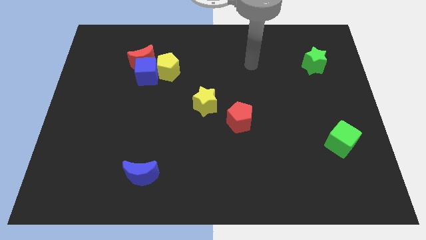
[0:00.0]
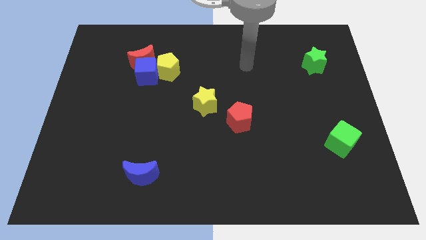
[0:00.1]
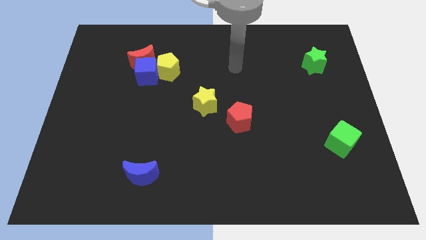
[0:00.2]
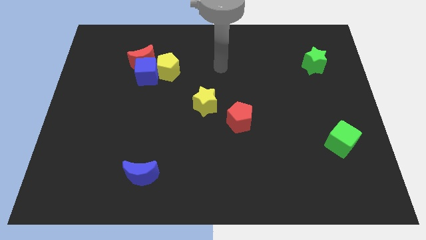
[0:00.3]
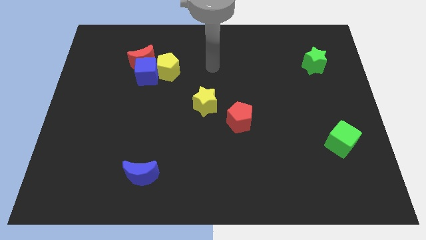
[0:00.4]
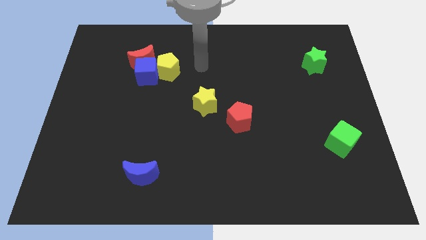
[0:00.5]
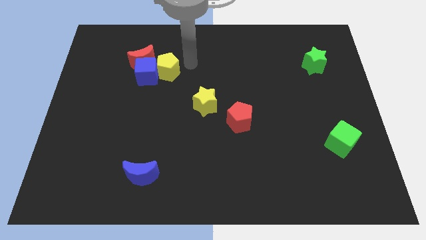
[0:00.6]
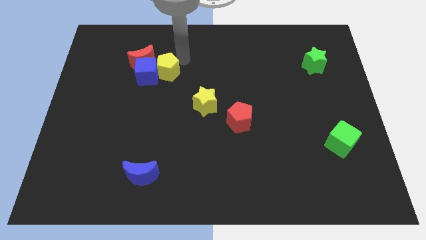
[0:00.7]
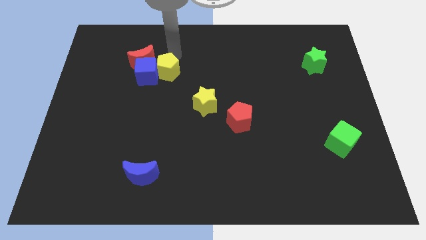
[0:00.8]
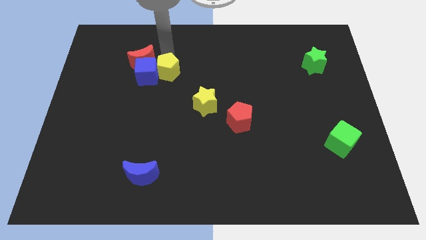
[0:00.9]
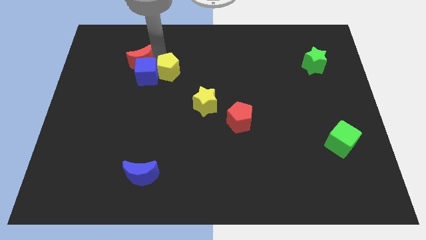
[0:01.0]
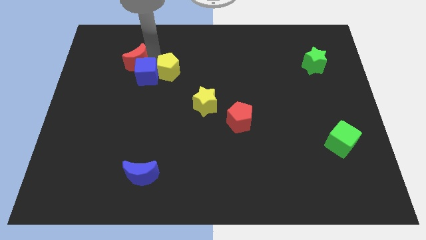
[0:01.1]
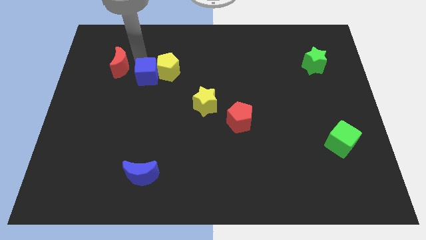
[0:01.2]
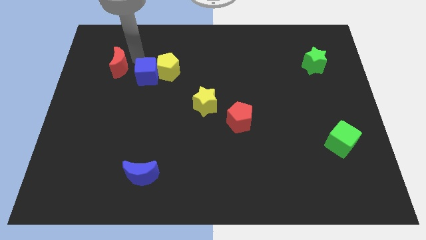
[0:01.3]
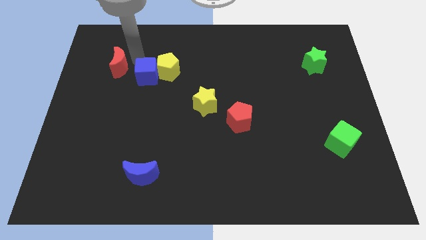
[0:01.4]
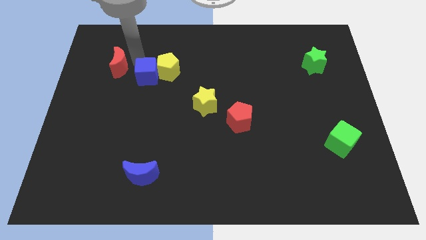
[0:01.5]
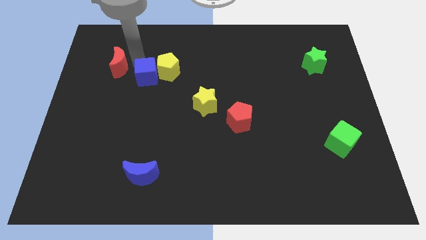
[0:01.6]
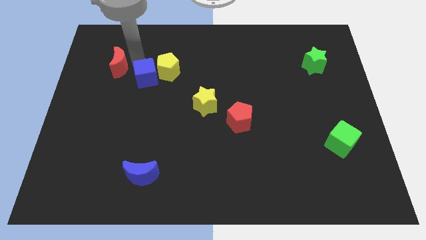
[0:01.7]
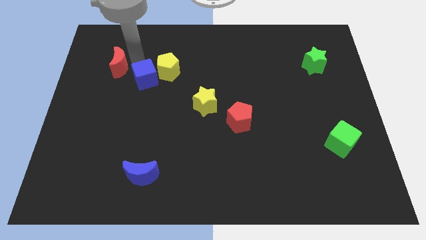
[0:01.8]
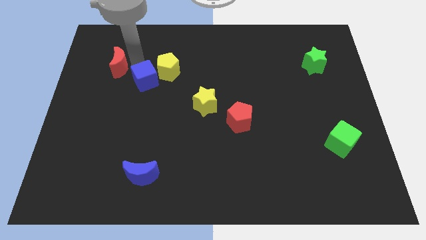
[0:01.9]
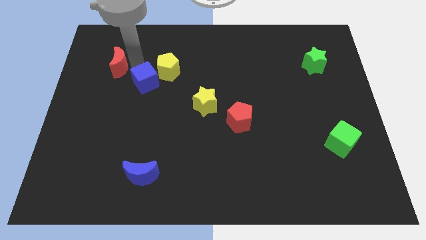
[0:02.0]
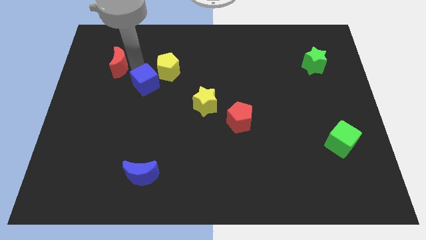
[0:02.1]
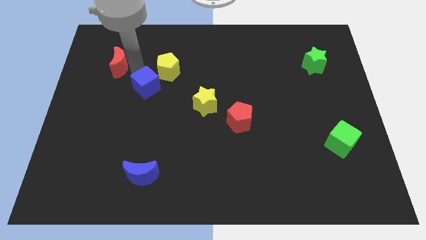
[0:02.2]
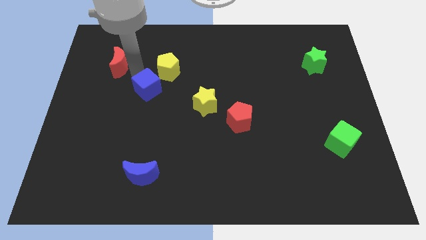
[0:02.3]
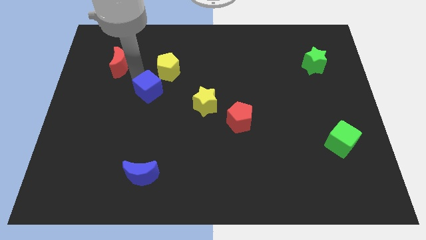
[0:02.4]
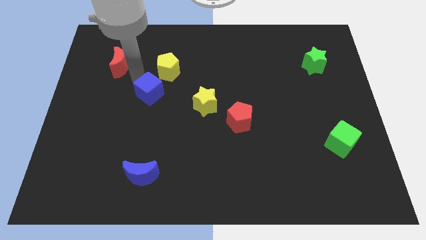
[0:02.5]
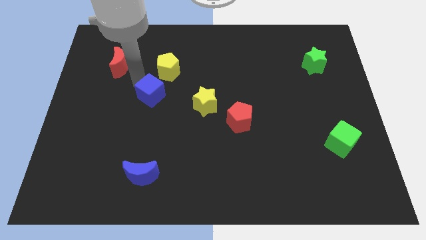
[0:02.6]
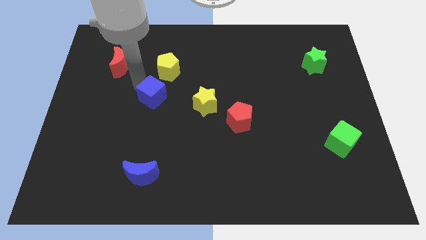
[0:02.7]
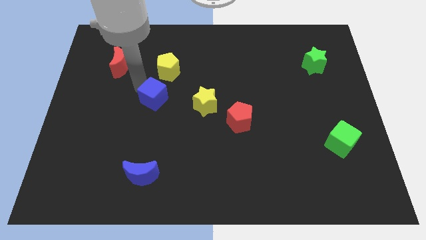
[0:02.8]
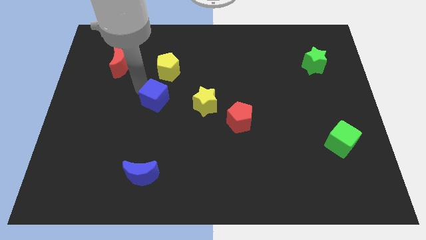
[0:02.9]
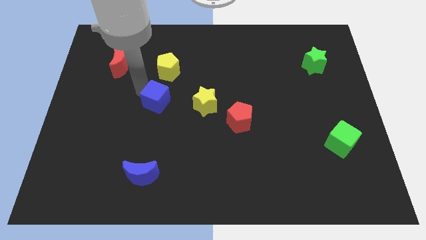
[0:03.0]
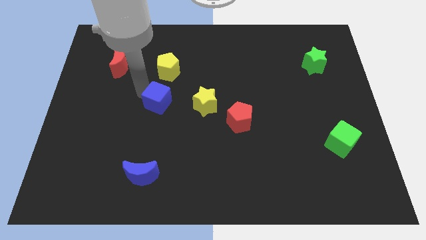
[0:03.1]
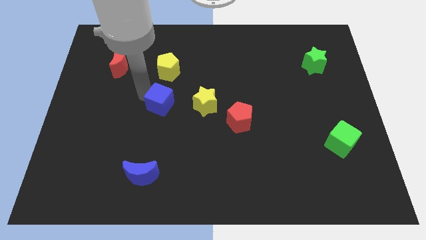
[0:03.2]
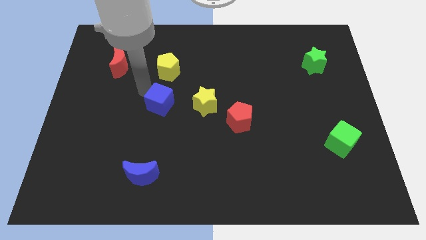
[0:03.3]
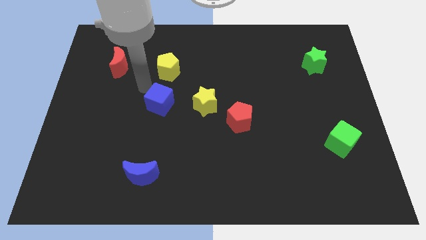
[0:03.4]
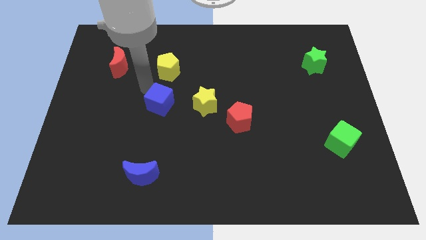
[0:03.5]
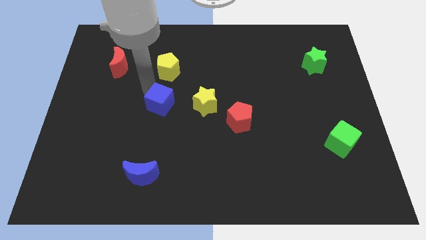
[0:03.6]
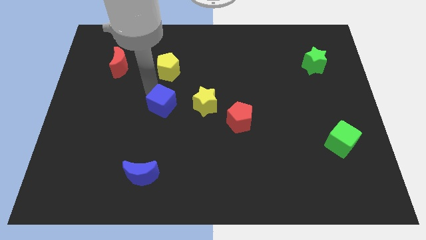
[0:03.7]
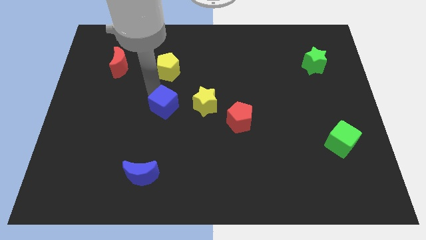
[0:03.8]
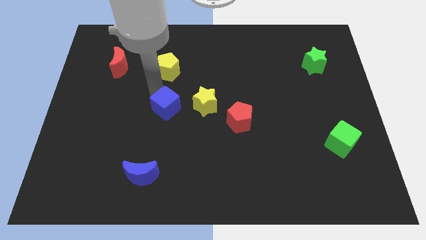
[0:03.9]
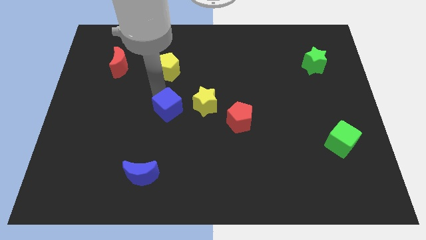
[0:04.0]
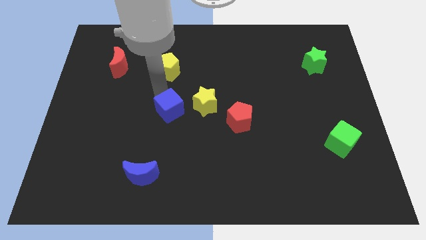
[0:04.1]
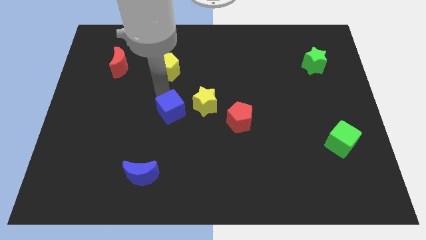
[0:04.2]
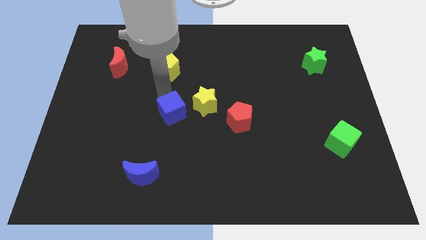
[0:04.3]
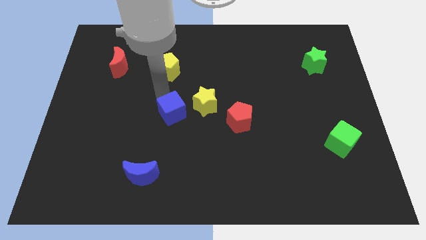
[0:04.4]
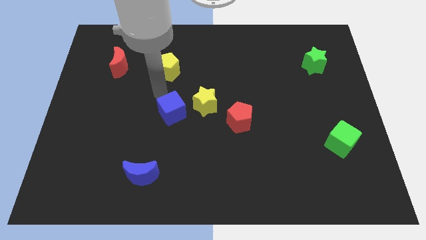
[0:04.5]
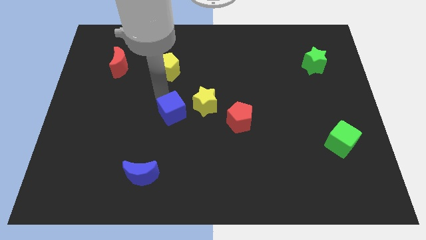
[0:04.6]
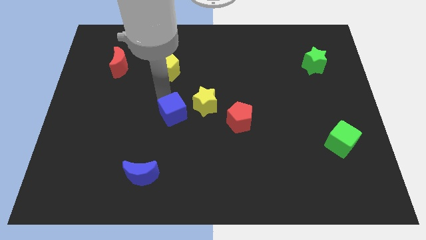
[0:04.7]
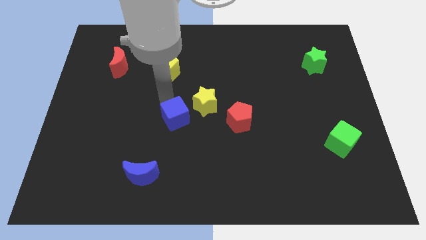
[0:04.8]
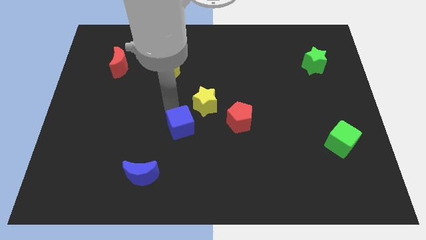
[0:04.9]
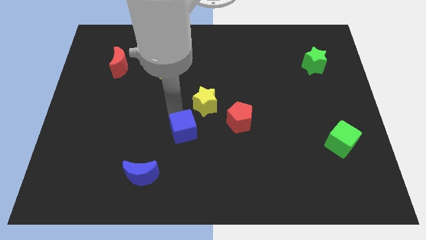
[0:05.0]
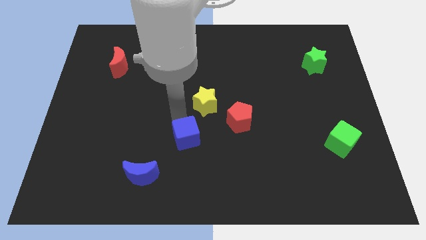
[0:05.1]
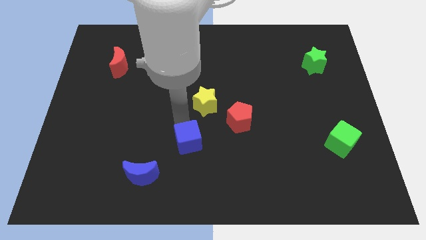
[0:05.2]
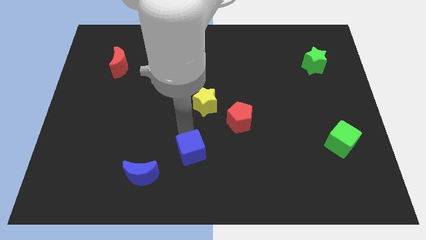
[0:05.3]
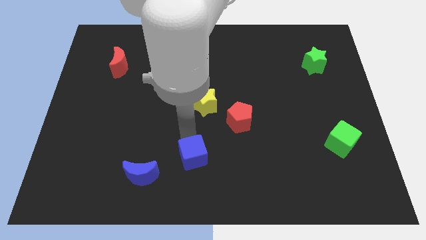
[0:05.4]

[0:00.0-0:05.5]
move the blue cube to the bottom side

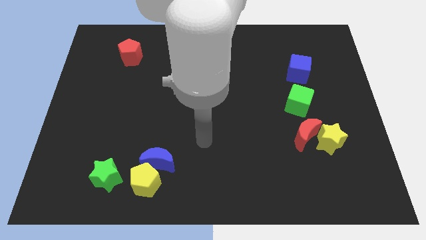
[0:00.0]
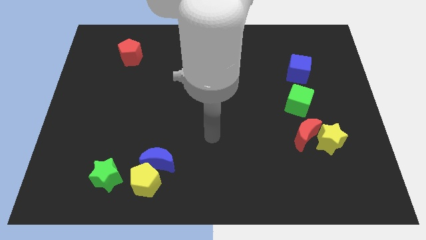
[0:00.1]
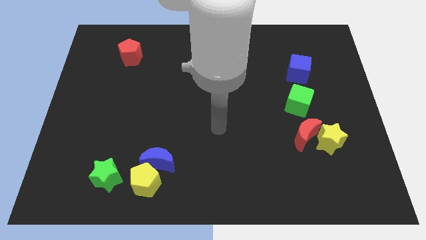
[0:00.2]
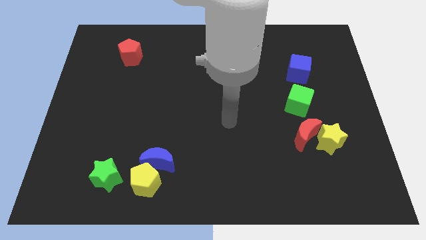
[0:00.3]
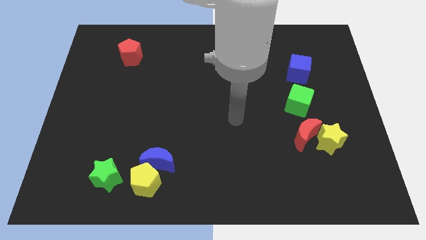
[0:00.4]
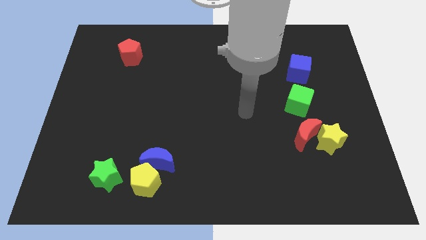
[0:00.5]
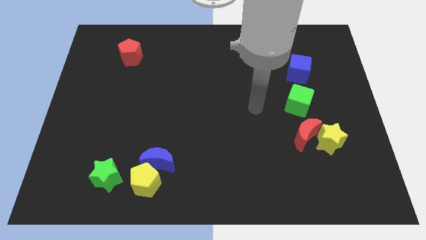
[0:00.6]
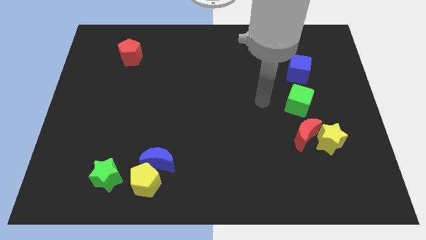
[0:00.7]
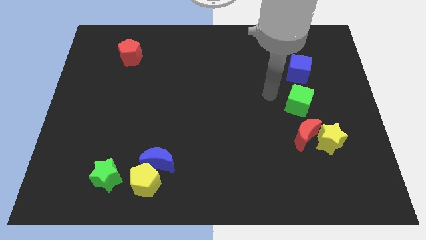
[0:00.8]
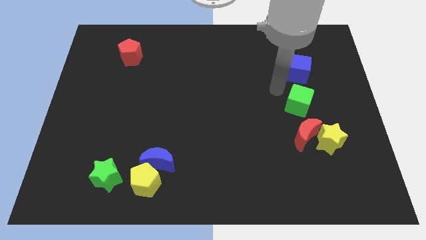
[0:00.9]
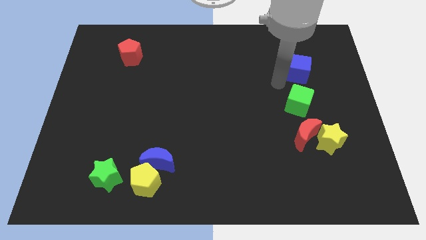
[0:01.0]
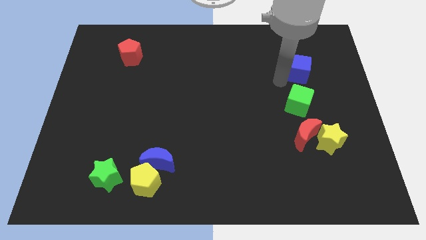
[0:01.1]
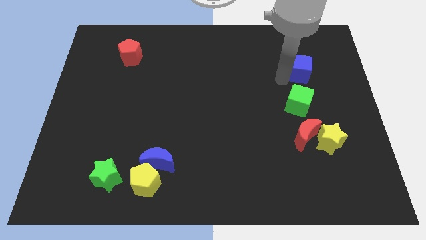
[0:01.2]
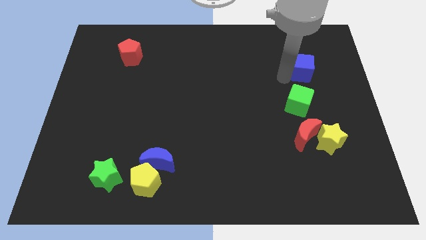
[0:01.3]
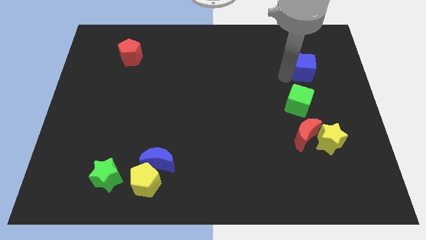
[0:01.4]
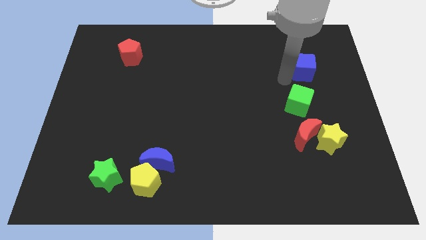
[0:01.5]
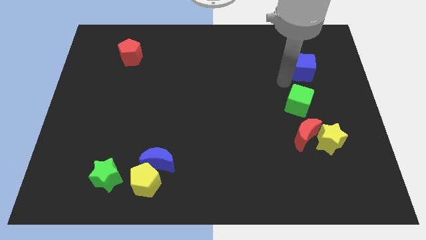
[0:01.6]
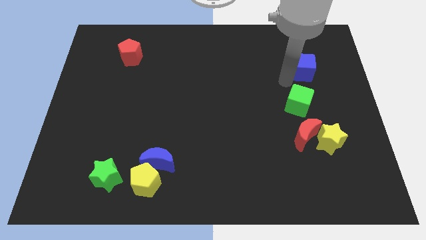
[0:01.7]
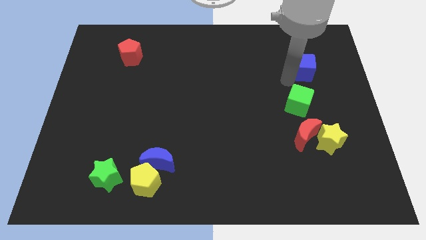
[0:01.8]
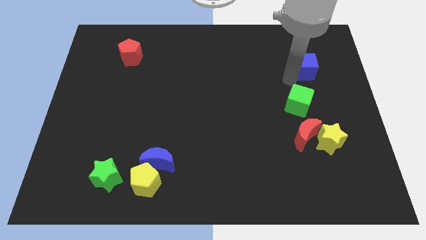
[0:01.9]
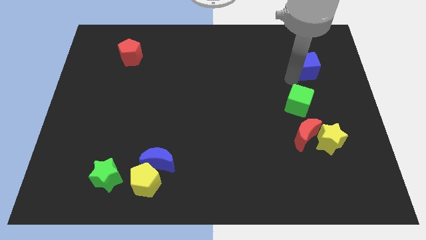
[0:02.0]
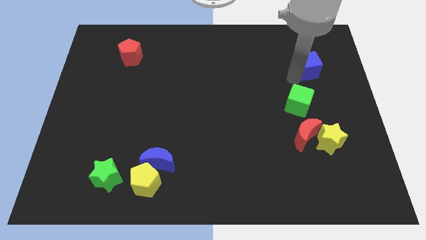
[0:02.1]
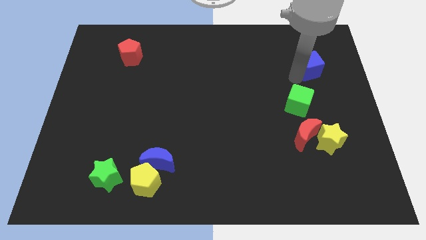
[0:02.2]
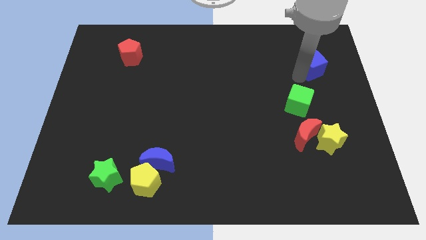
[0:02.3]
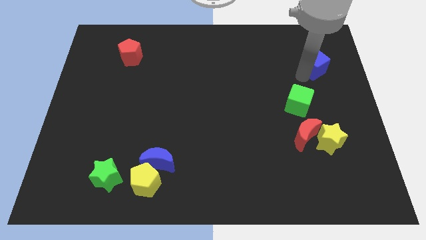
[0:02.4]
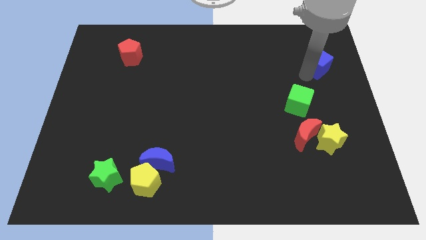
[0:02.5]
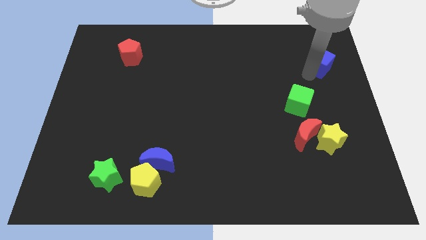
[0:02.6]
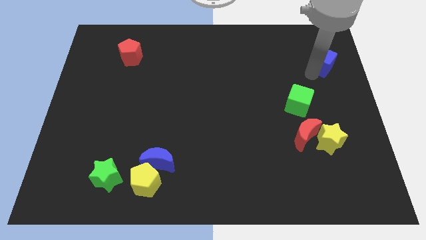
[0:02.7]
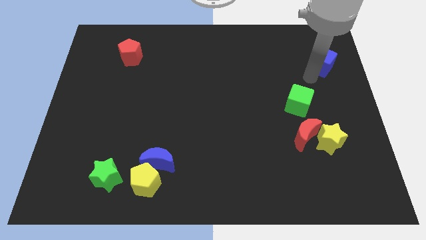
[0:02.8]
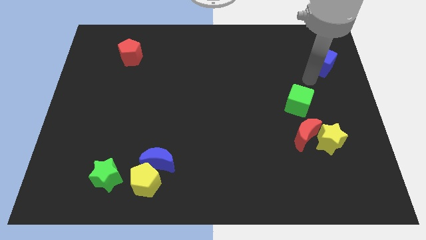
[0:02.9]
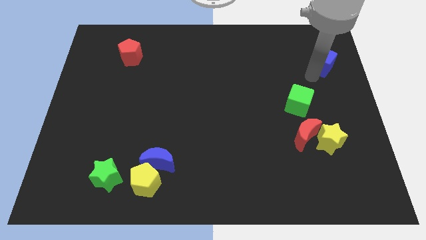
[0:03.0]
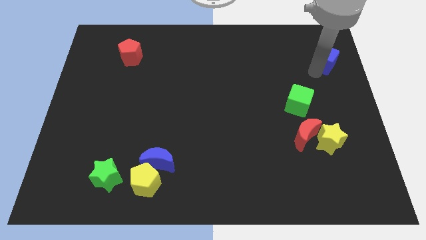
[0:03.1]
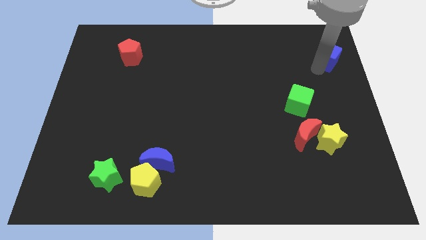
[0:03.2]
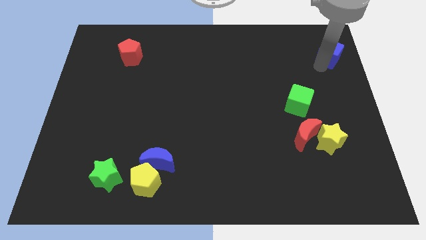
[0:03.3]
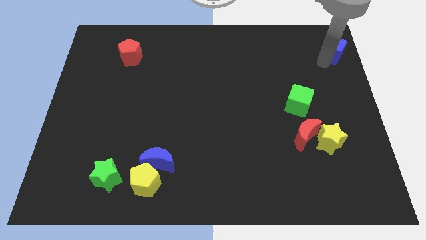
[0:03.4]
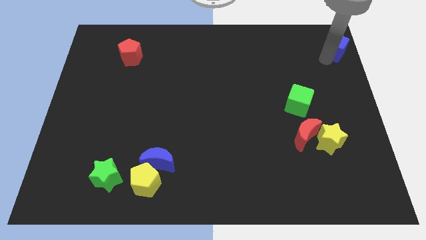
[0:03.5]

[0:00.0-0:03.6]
slide the blue cube to the top right
